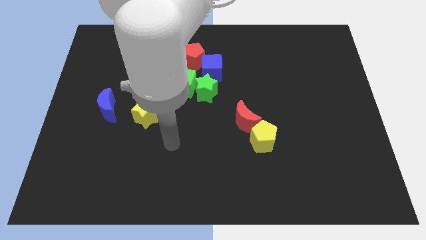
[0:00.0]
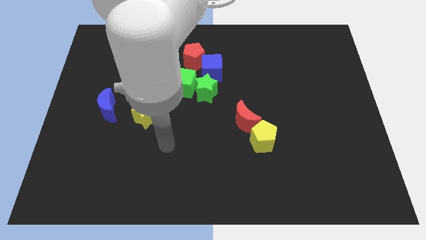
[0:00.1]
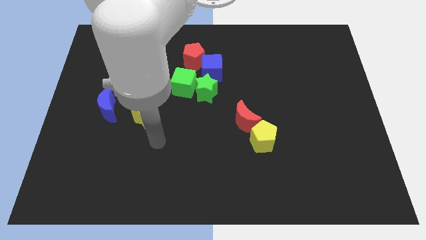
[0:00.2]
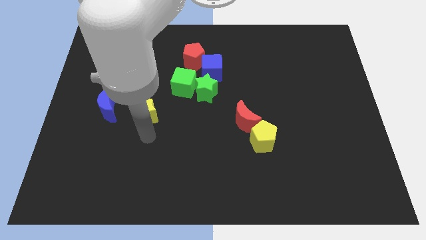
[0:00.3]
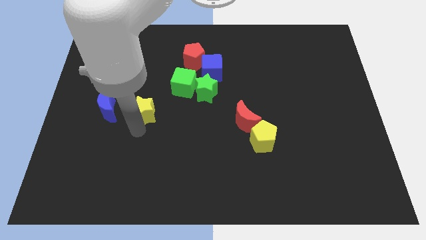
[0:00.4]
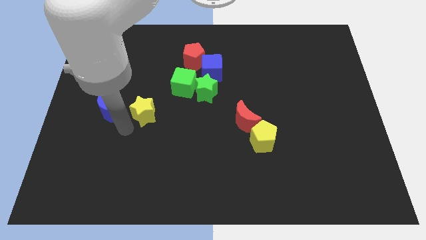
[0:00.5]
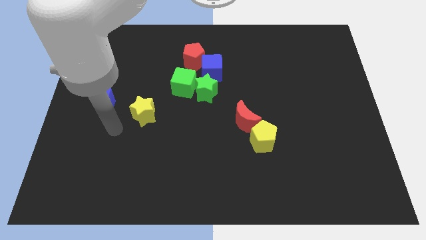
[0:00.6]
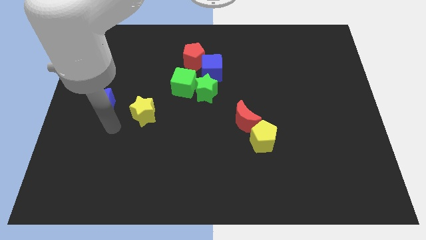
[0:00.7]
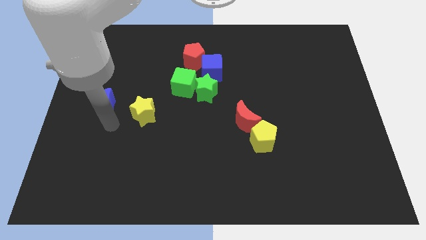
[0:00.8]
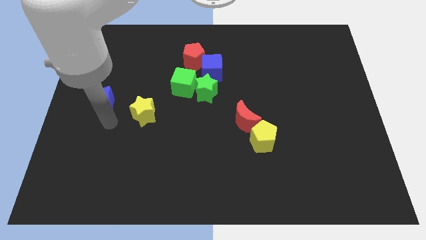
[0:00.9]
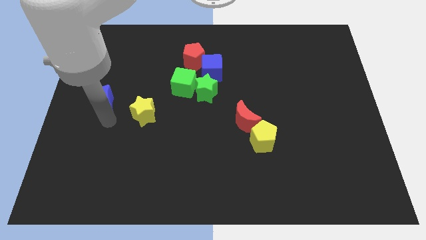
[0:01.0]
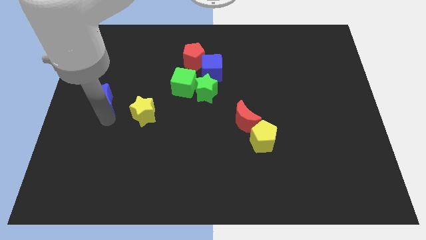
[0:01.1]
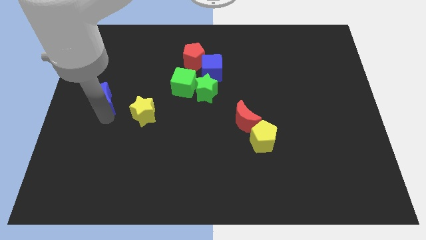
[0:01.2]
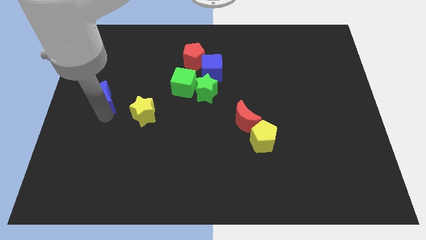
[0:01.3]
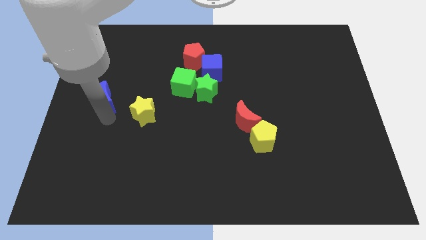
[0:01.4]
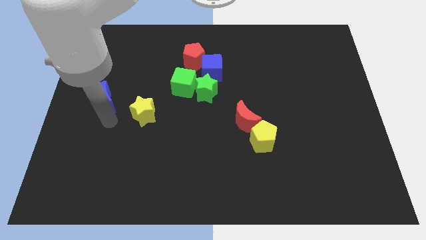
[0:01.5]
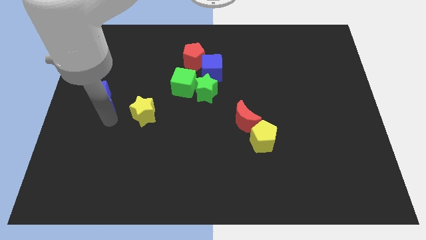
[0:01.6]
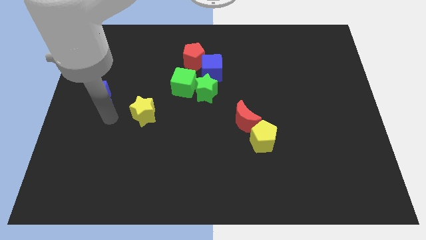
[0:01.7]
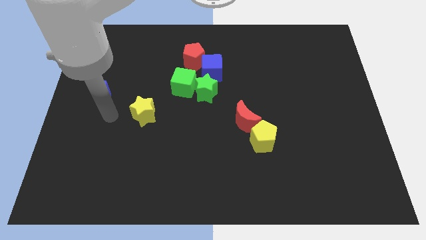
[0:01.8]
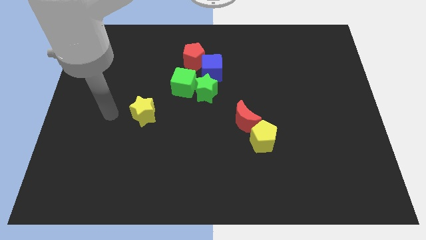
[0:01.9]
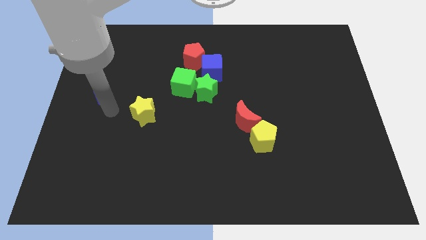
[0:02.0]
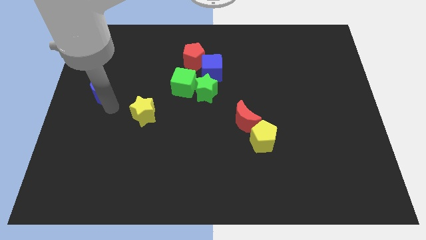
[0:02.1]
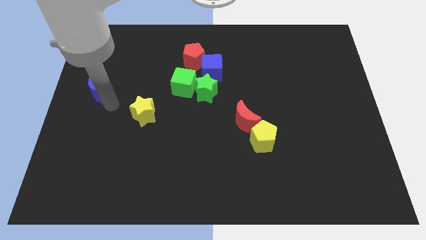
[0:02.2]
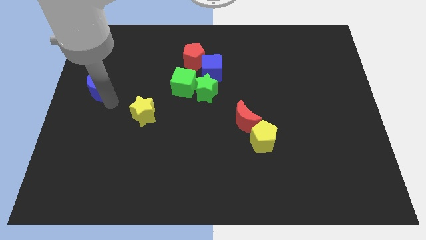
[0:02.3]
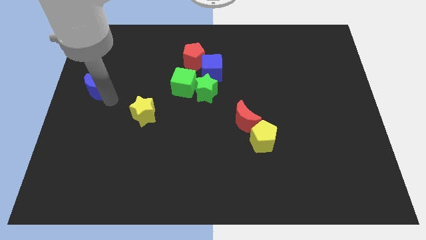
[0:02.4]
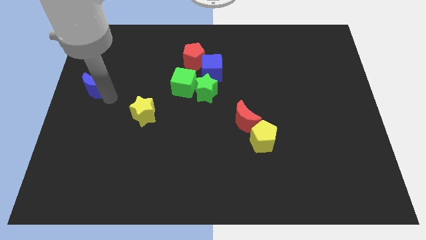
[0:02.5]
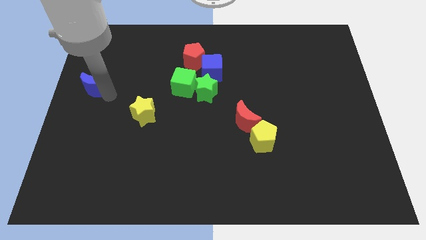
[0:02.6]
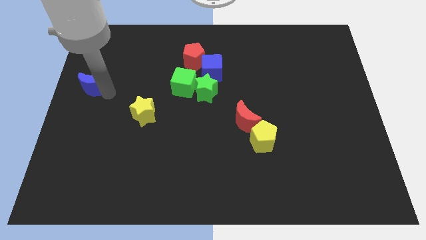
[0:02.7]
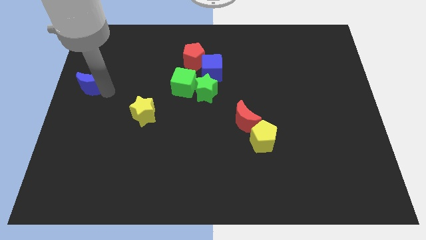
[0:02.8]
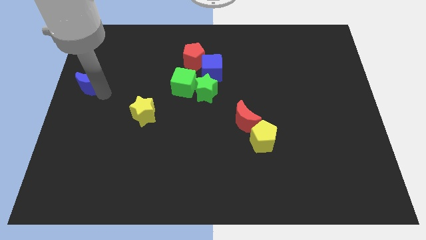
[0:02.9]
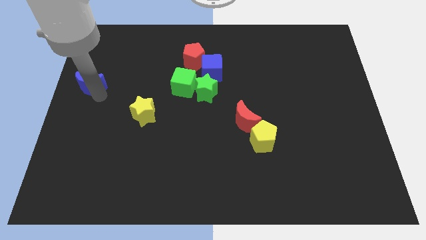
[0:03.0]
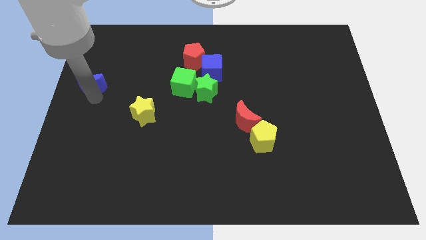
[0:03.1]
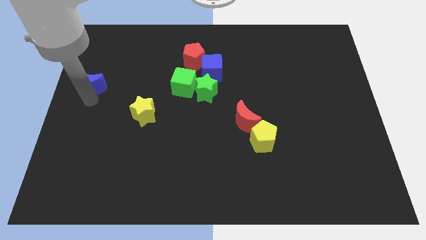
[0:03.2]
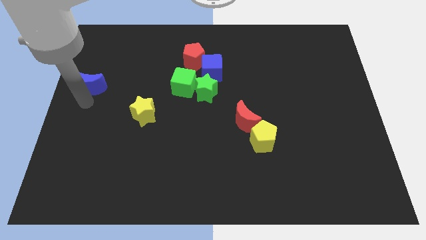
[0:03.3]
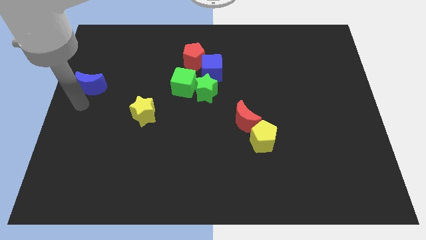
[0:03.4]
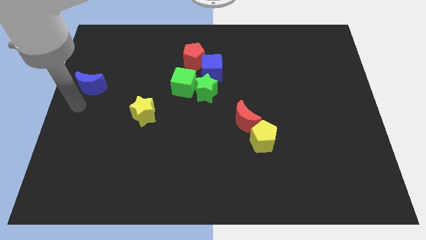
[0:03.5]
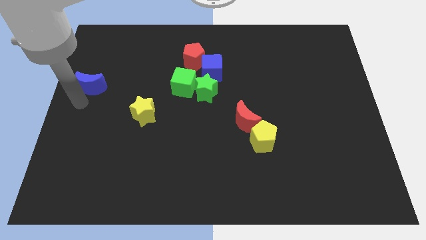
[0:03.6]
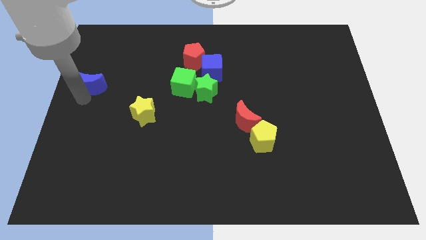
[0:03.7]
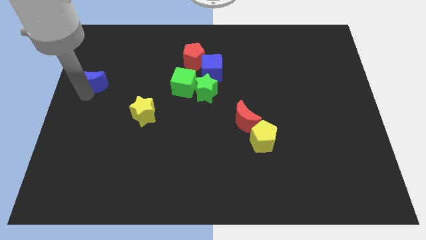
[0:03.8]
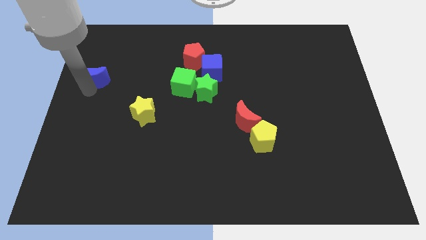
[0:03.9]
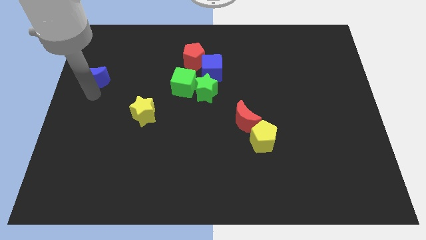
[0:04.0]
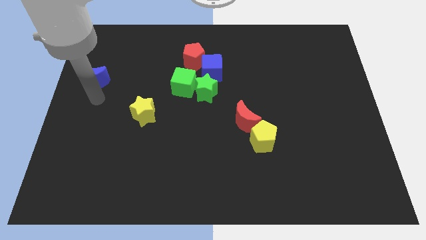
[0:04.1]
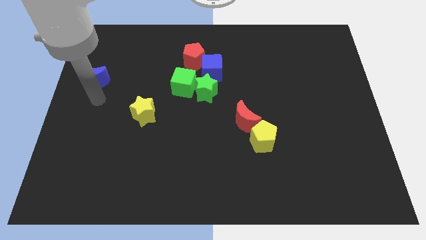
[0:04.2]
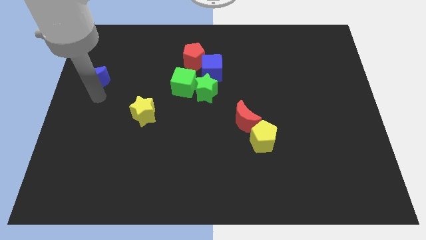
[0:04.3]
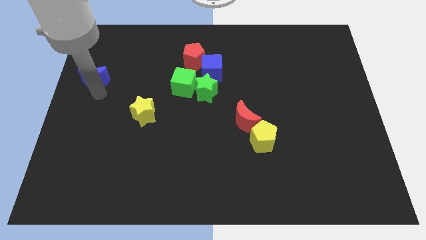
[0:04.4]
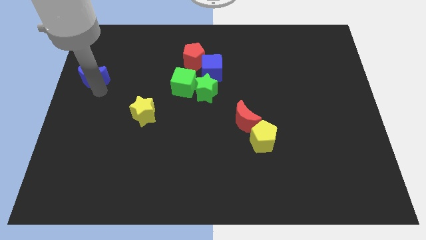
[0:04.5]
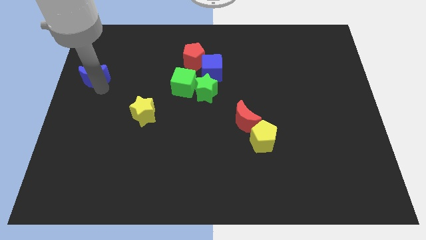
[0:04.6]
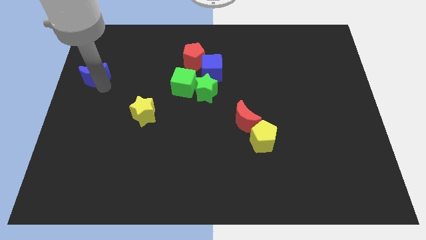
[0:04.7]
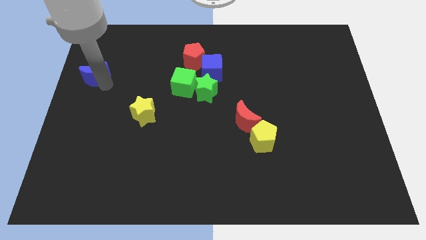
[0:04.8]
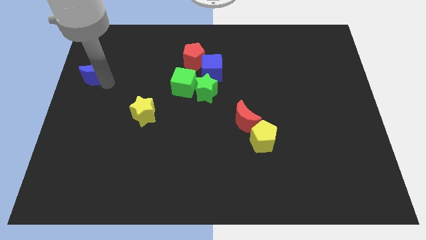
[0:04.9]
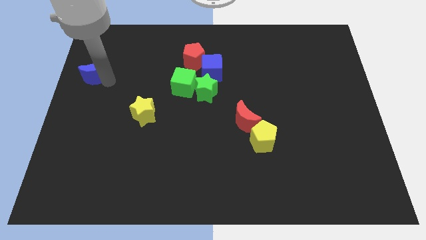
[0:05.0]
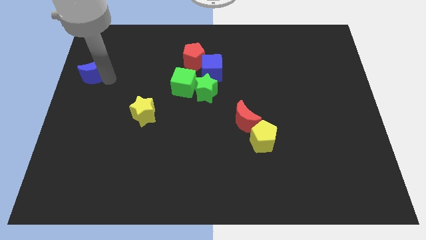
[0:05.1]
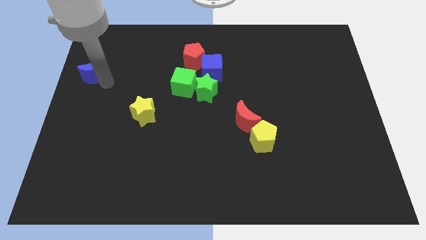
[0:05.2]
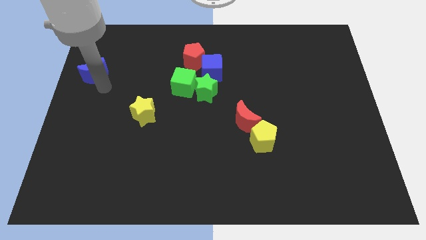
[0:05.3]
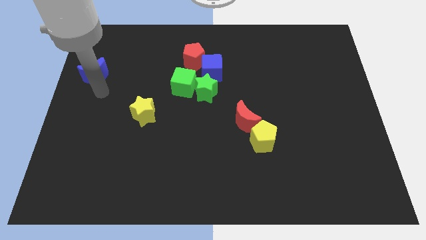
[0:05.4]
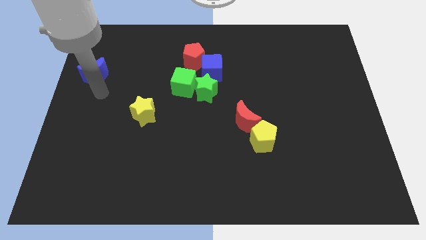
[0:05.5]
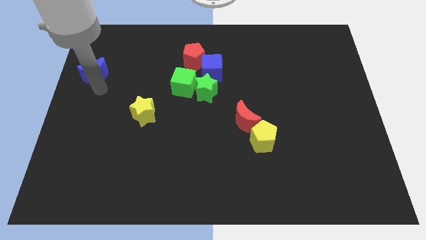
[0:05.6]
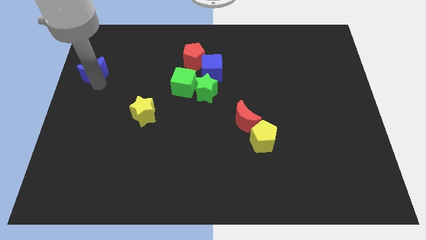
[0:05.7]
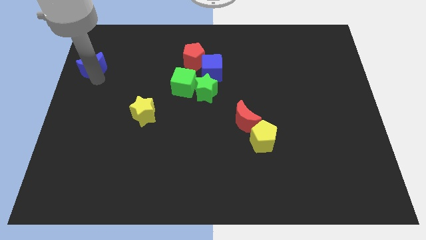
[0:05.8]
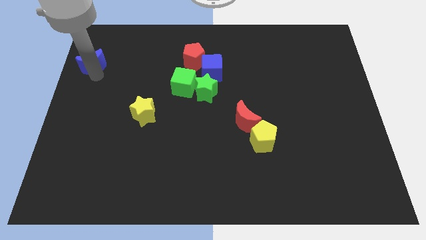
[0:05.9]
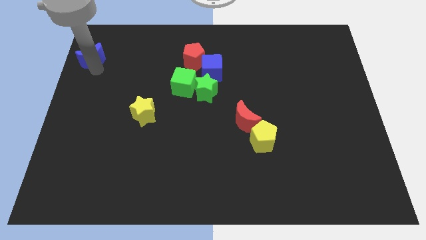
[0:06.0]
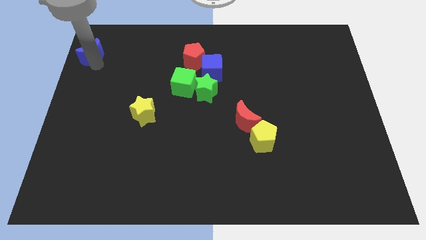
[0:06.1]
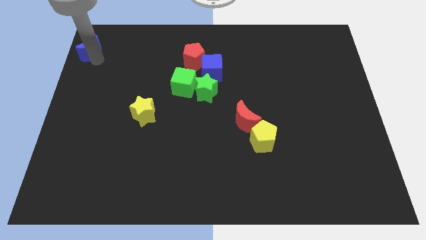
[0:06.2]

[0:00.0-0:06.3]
move the blue moon to the upper left corner

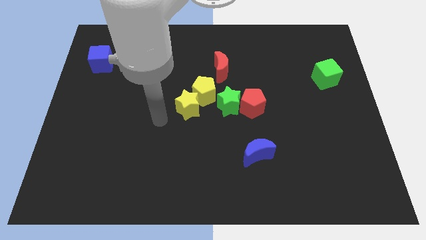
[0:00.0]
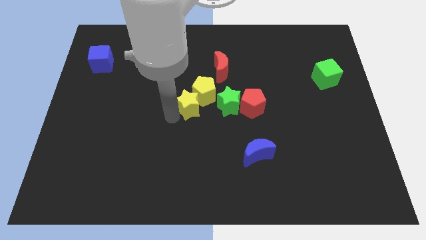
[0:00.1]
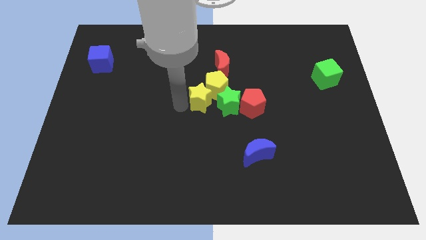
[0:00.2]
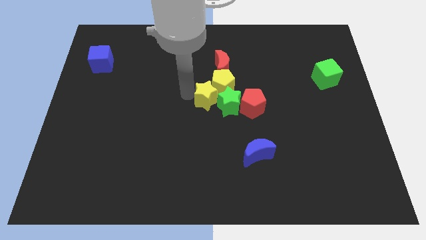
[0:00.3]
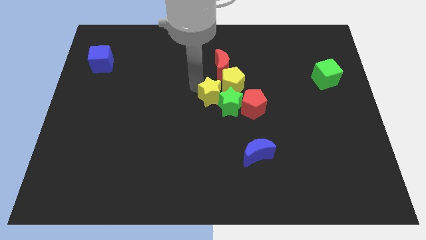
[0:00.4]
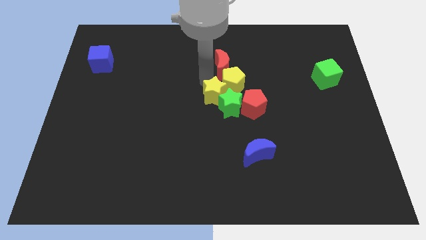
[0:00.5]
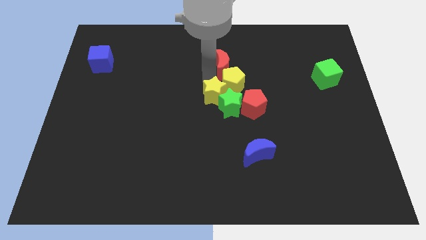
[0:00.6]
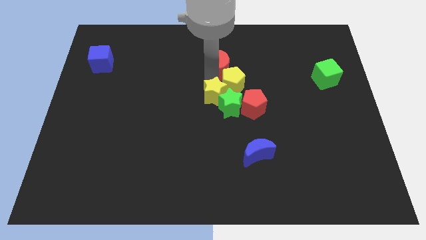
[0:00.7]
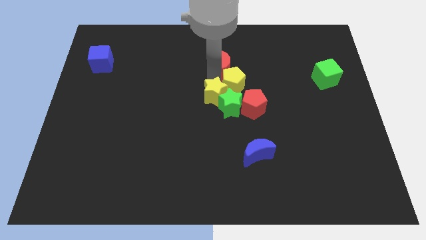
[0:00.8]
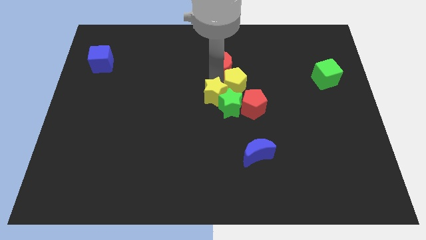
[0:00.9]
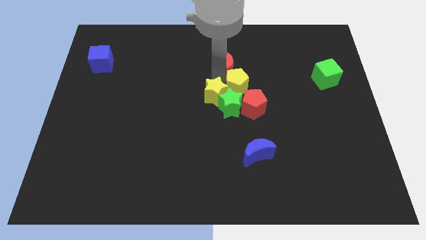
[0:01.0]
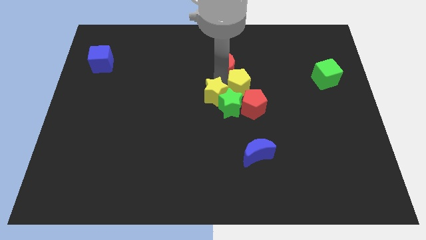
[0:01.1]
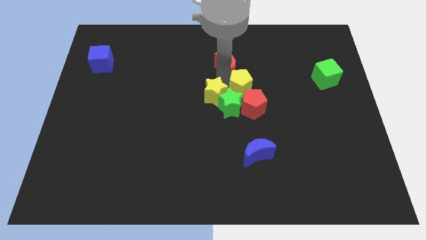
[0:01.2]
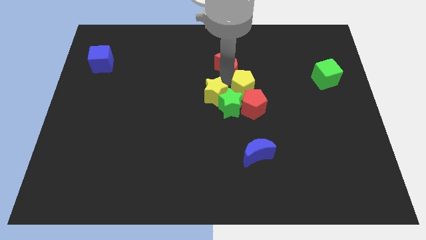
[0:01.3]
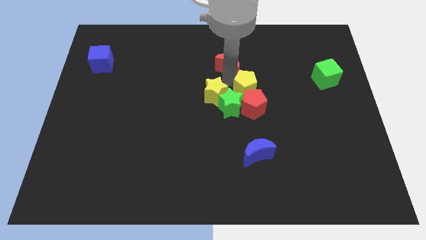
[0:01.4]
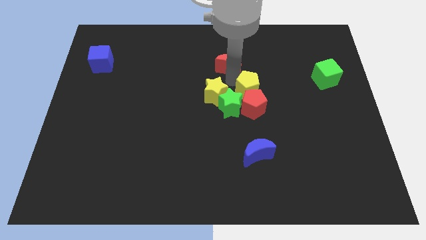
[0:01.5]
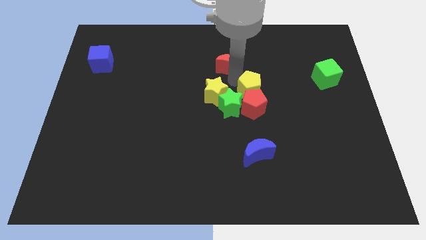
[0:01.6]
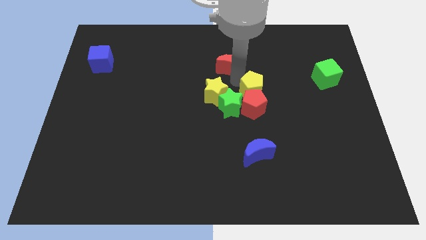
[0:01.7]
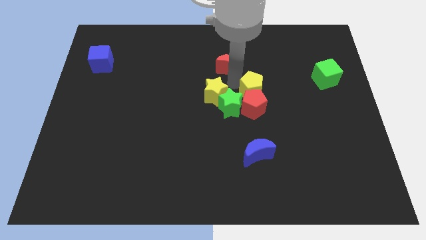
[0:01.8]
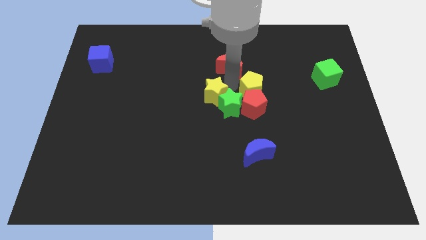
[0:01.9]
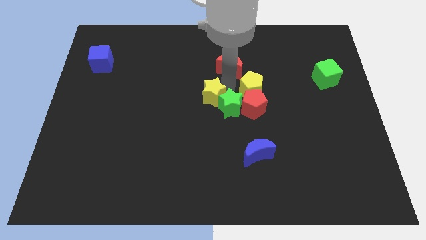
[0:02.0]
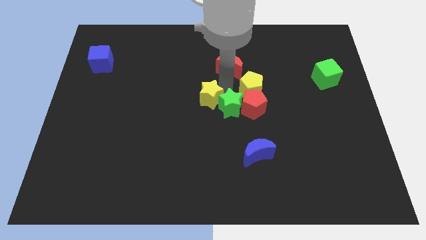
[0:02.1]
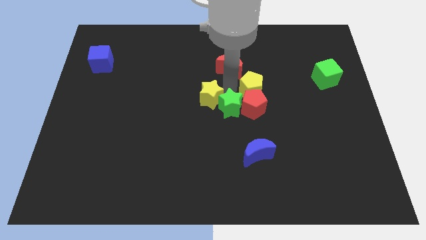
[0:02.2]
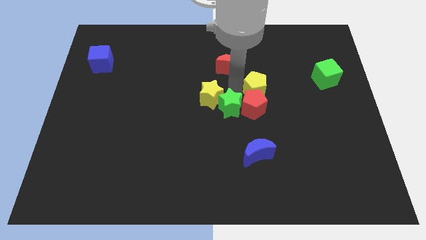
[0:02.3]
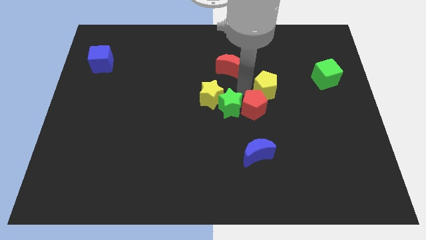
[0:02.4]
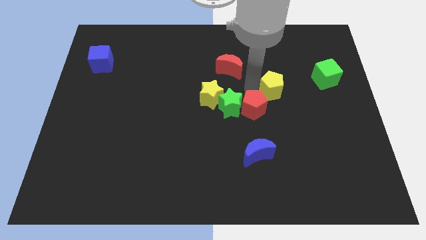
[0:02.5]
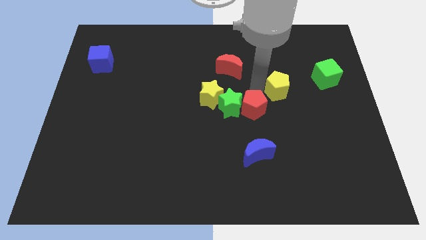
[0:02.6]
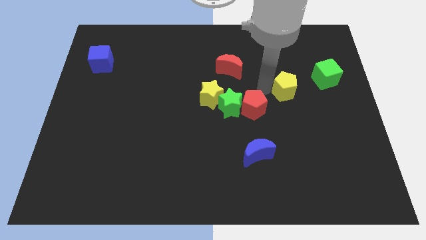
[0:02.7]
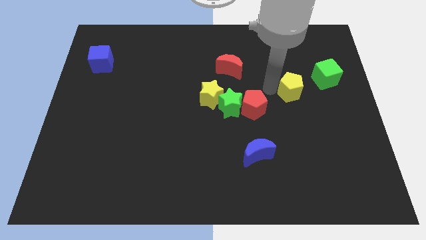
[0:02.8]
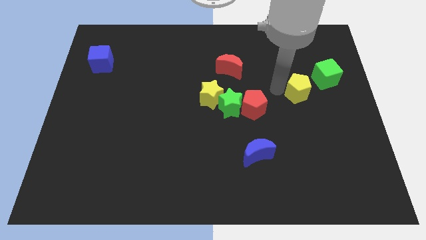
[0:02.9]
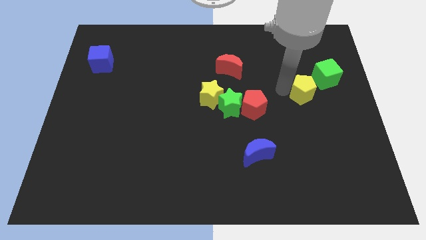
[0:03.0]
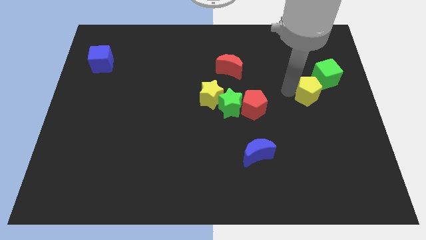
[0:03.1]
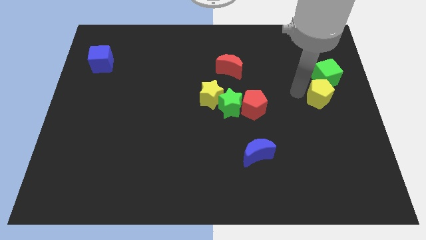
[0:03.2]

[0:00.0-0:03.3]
put the yellow pentagon to the right side of the board
